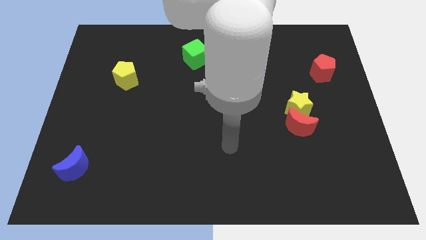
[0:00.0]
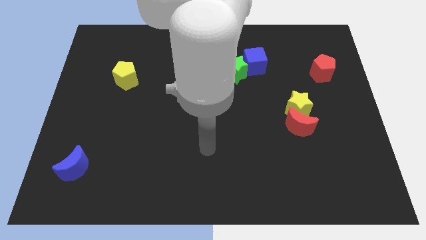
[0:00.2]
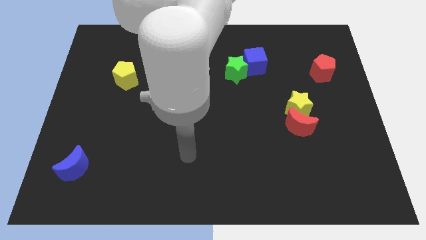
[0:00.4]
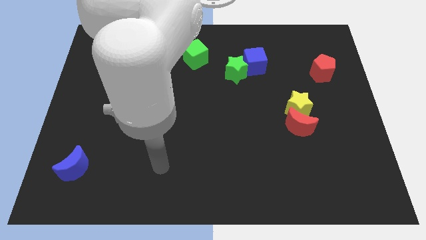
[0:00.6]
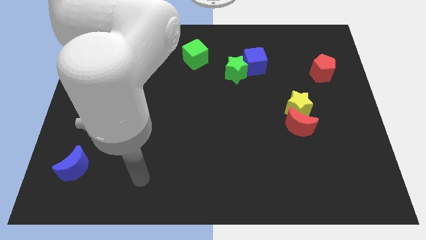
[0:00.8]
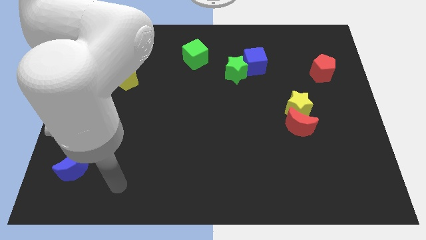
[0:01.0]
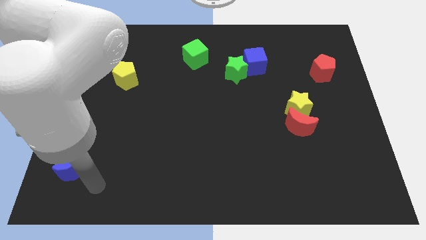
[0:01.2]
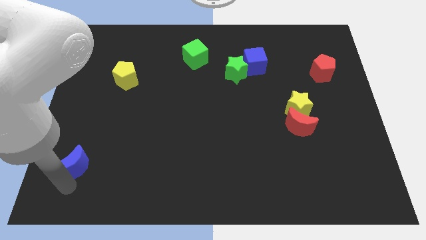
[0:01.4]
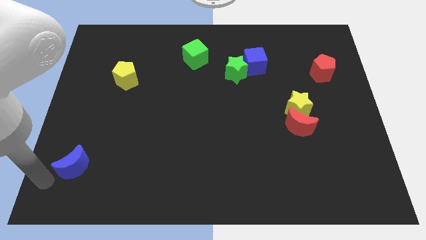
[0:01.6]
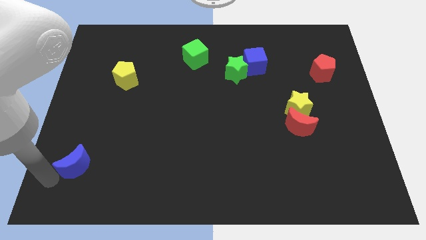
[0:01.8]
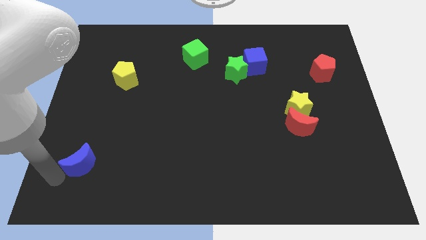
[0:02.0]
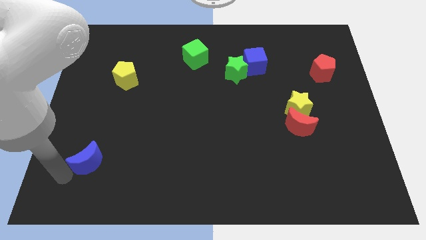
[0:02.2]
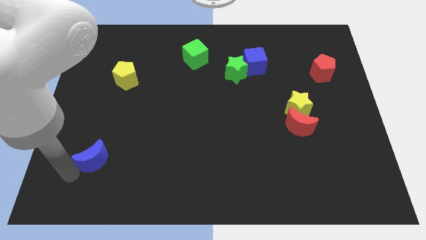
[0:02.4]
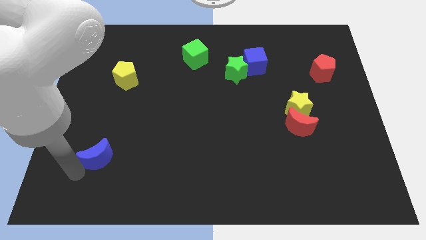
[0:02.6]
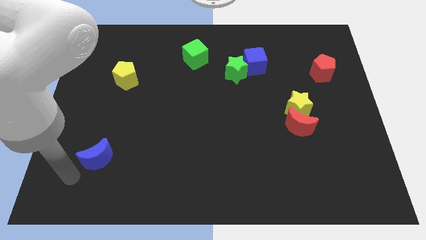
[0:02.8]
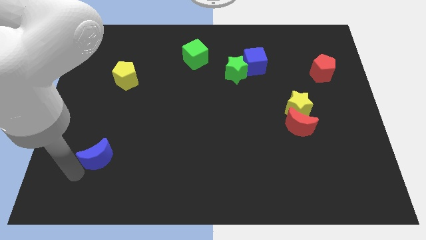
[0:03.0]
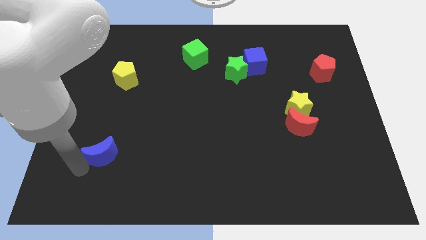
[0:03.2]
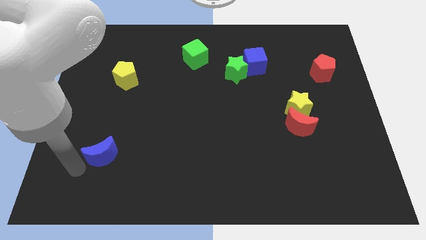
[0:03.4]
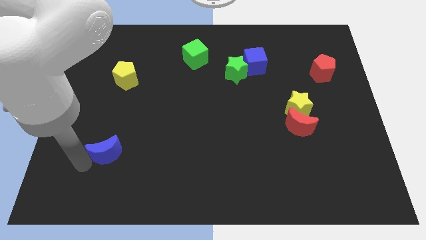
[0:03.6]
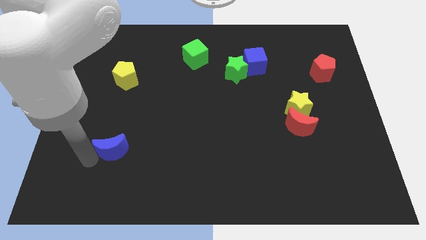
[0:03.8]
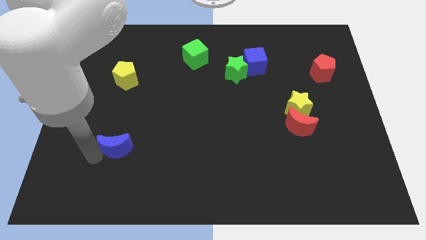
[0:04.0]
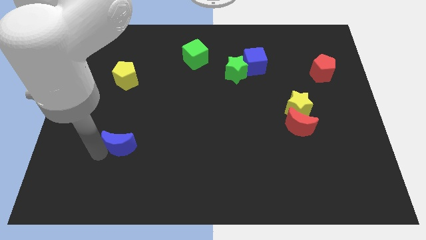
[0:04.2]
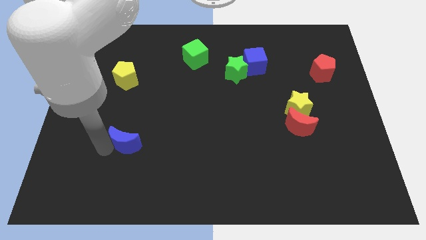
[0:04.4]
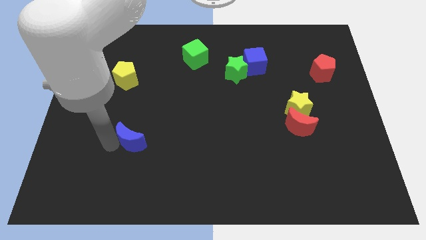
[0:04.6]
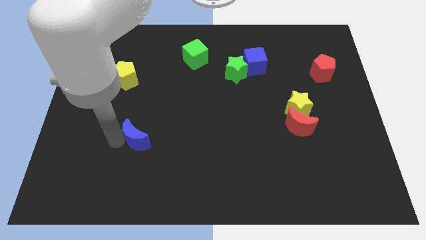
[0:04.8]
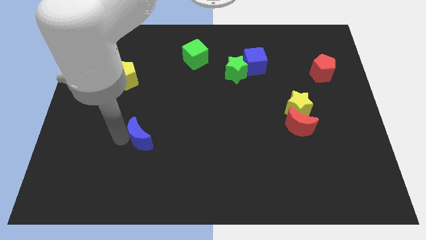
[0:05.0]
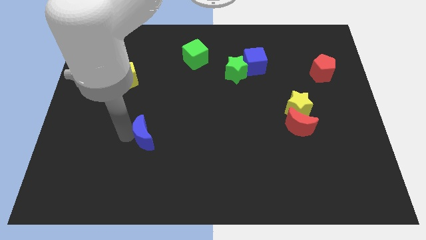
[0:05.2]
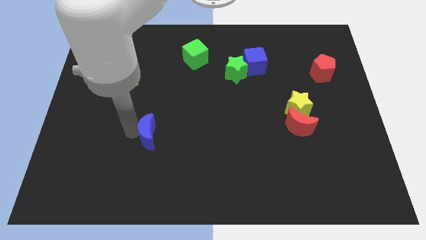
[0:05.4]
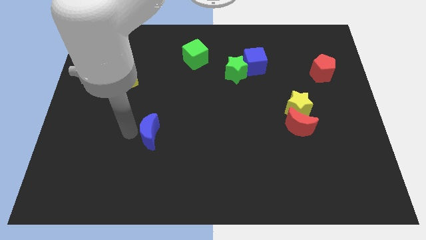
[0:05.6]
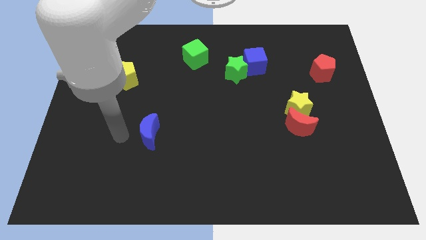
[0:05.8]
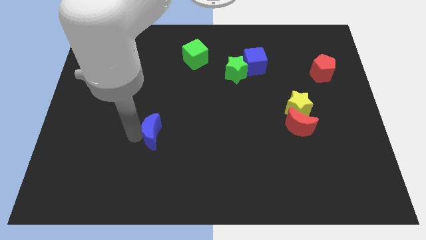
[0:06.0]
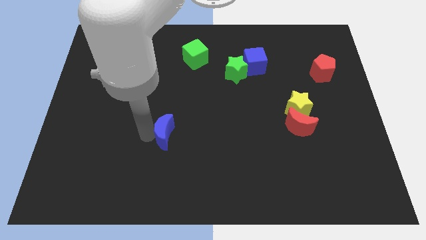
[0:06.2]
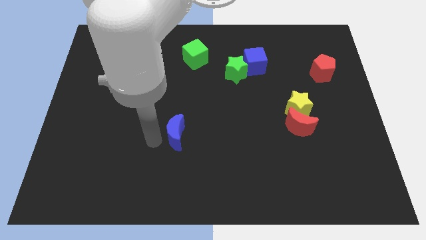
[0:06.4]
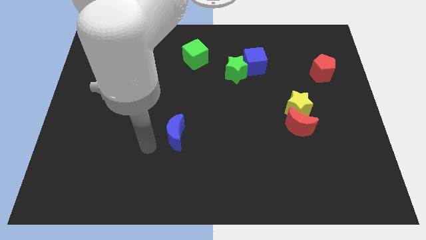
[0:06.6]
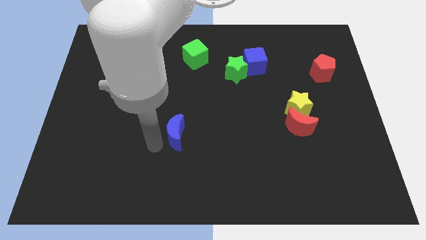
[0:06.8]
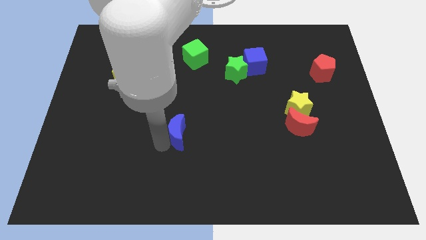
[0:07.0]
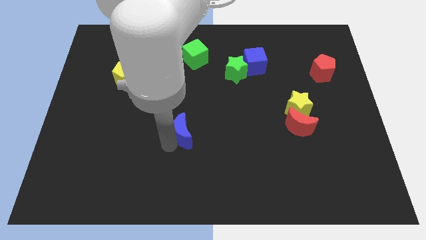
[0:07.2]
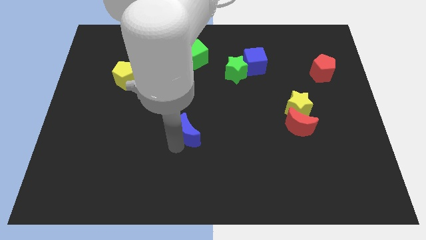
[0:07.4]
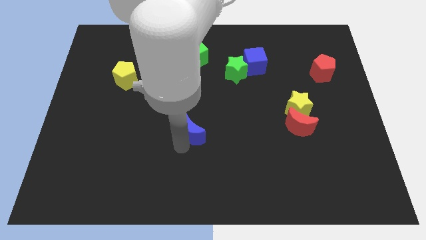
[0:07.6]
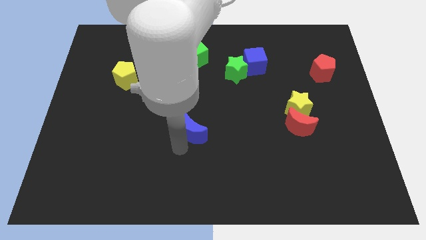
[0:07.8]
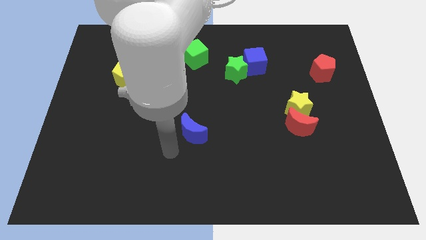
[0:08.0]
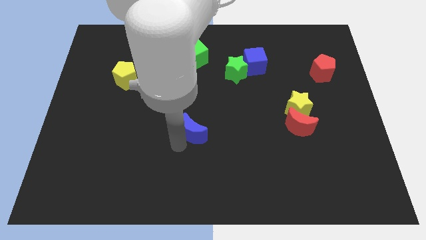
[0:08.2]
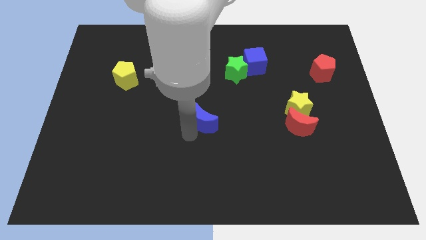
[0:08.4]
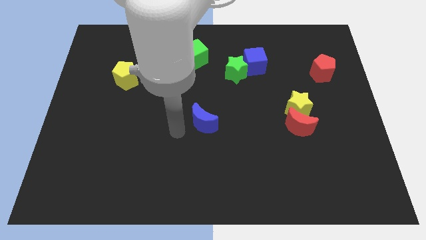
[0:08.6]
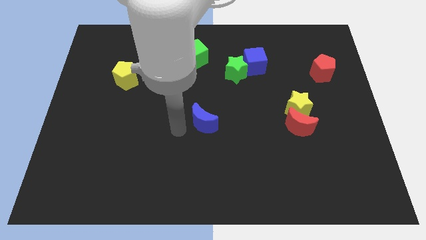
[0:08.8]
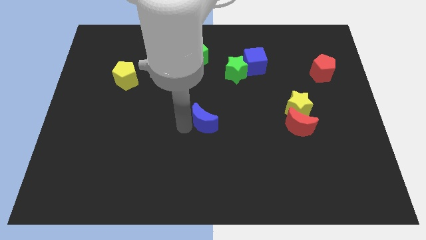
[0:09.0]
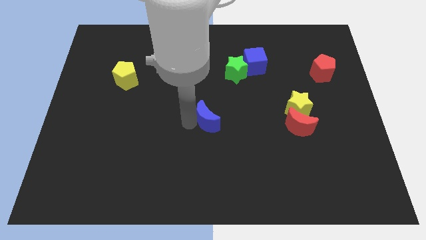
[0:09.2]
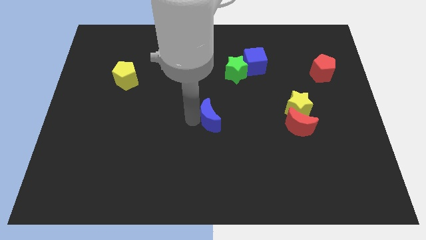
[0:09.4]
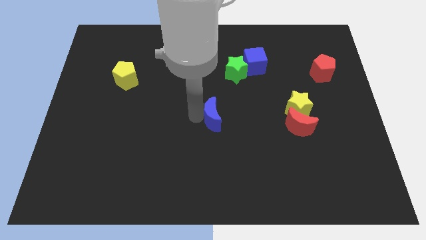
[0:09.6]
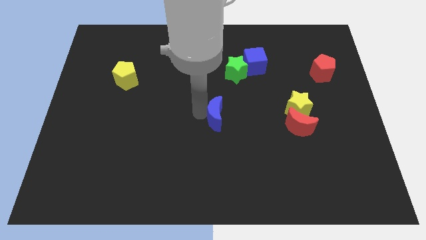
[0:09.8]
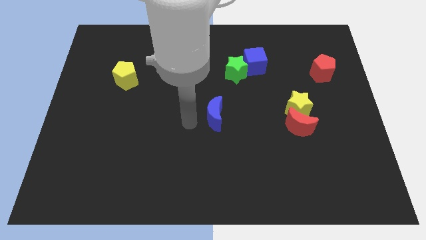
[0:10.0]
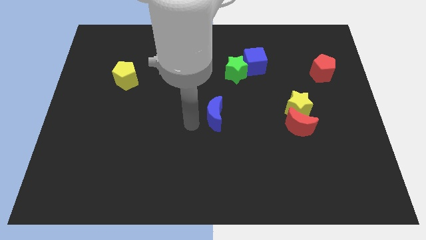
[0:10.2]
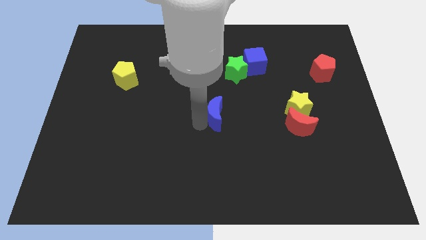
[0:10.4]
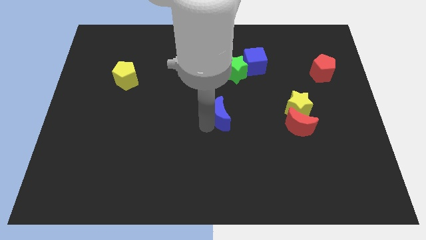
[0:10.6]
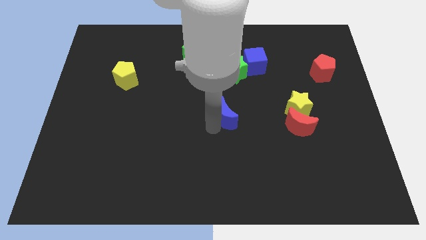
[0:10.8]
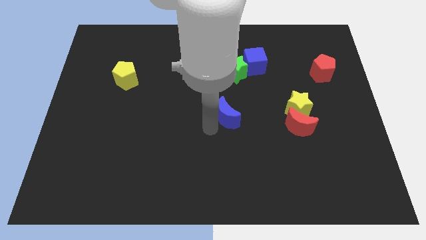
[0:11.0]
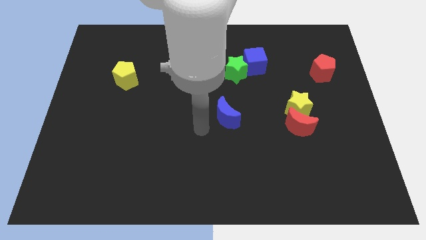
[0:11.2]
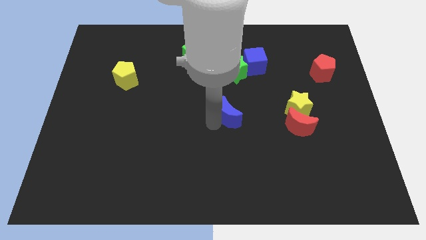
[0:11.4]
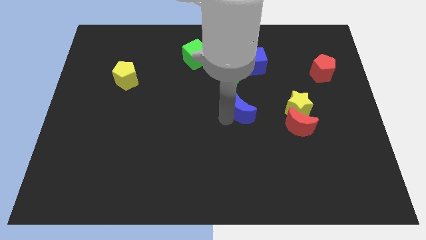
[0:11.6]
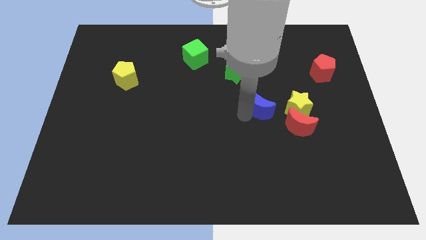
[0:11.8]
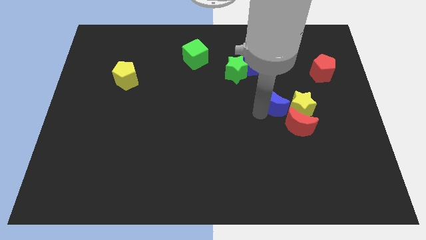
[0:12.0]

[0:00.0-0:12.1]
push the blue moon diagonally up and to the left of the yellow star

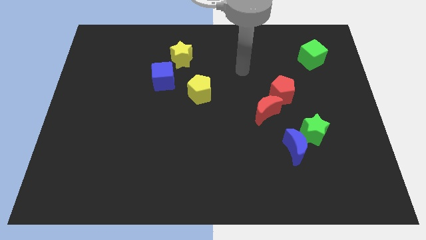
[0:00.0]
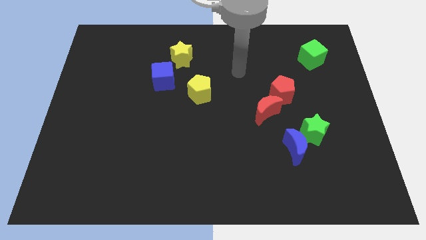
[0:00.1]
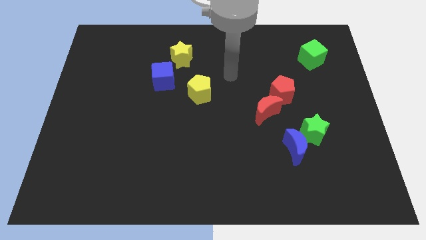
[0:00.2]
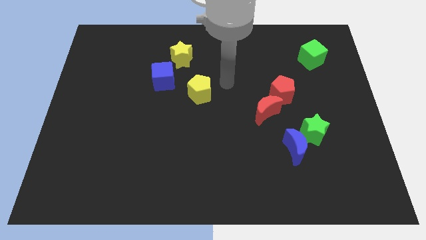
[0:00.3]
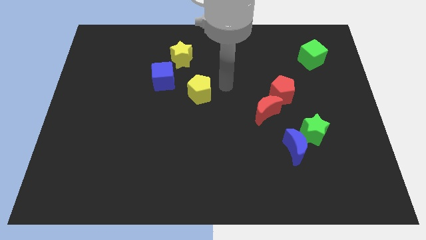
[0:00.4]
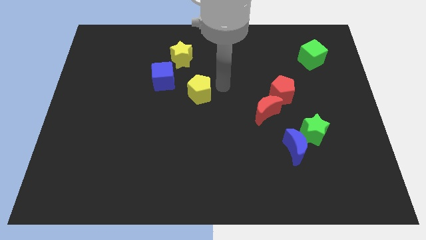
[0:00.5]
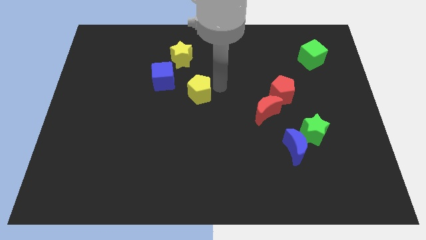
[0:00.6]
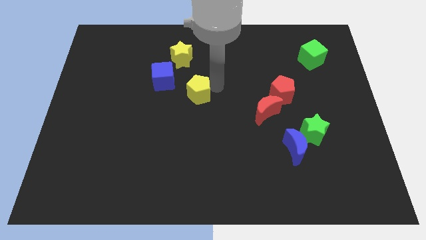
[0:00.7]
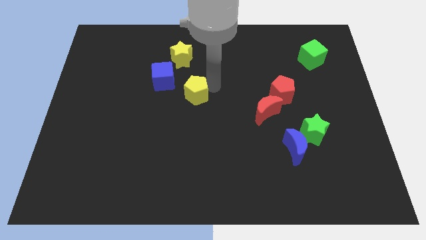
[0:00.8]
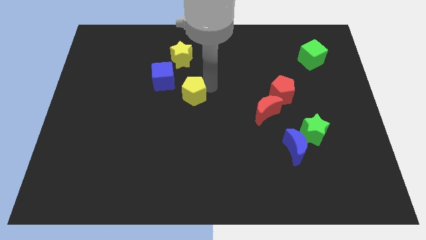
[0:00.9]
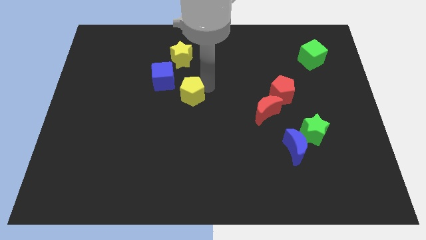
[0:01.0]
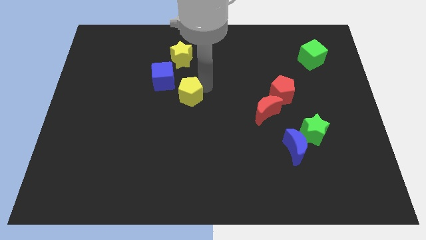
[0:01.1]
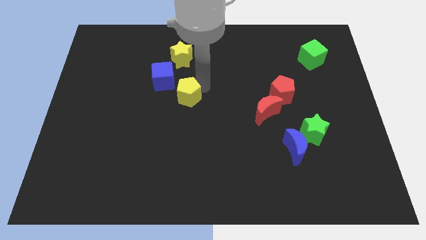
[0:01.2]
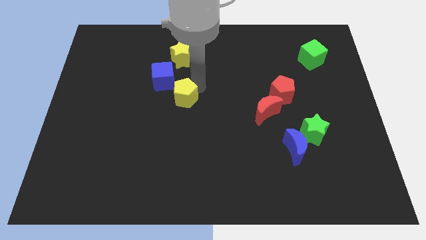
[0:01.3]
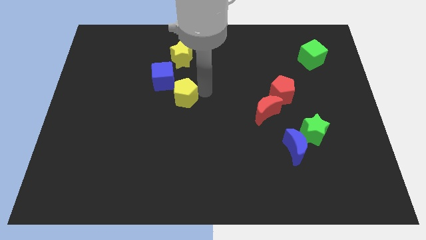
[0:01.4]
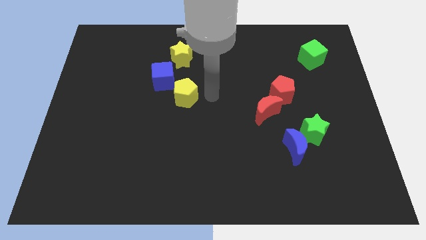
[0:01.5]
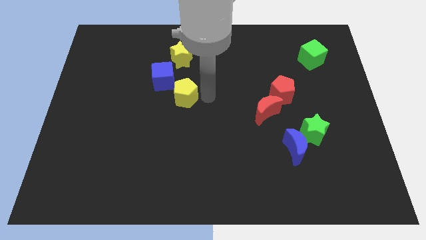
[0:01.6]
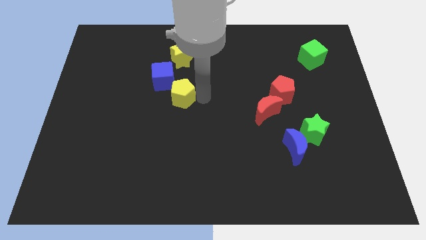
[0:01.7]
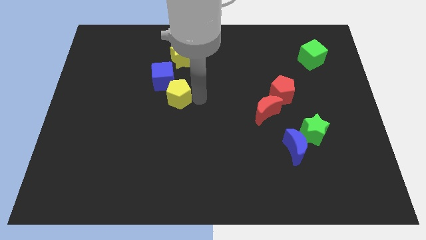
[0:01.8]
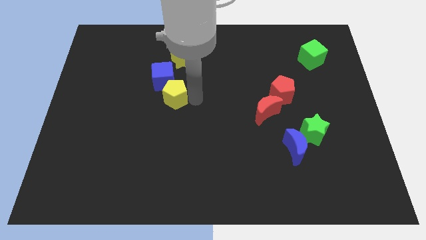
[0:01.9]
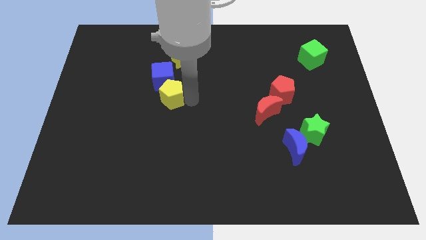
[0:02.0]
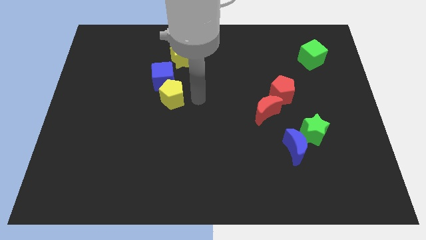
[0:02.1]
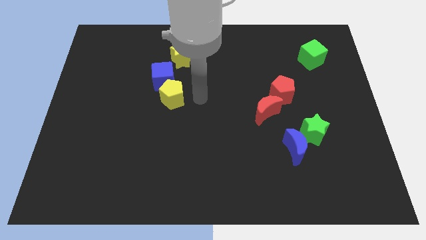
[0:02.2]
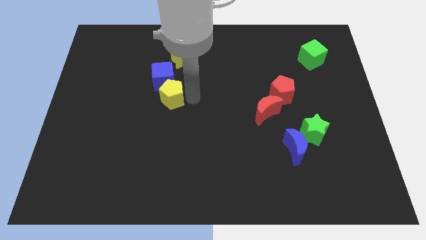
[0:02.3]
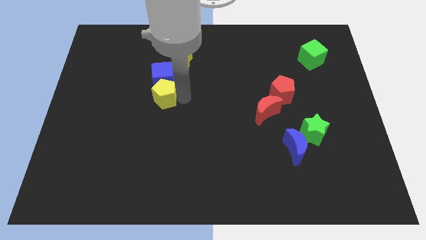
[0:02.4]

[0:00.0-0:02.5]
push the yellow pentagon to the bottom left of the blue cube
